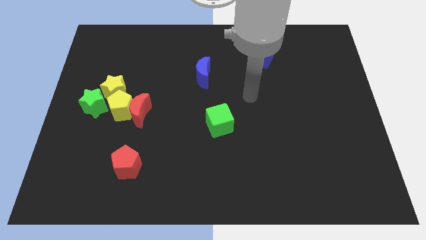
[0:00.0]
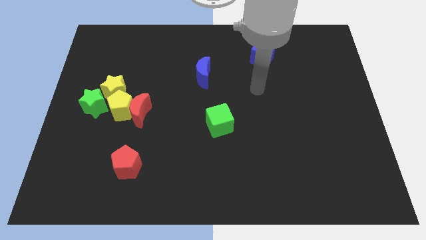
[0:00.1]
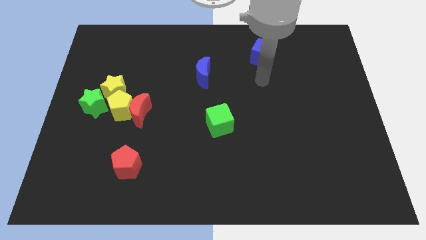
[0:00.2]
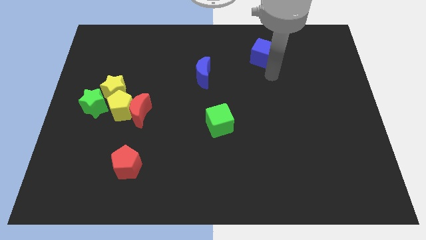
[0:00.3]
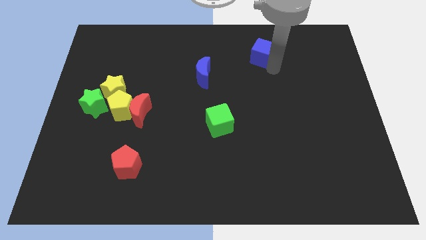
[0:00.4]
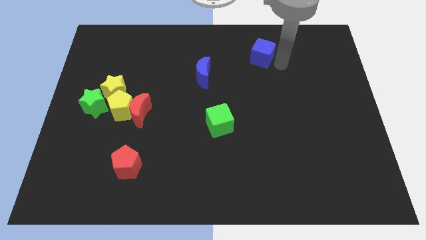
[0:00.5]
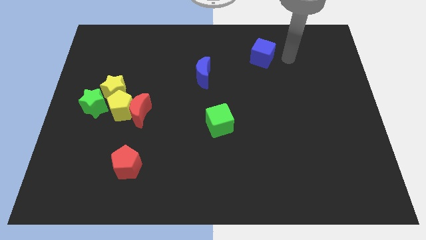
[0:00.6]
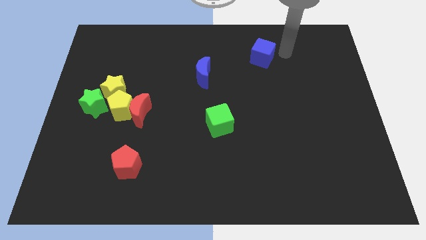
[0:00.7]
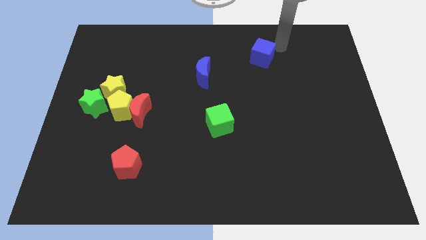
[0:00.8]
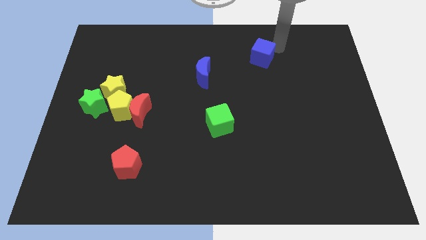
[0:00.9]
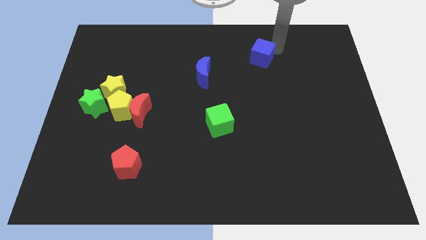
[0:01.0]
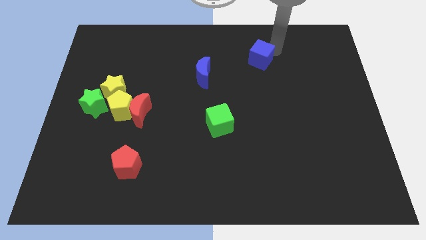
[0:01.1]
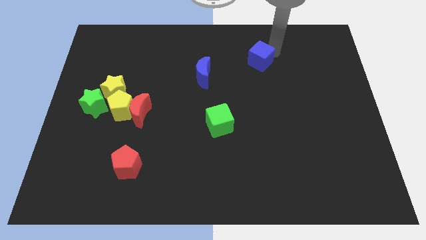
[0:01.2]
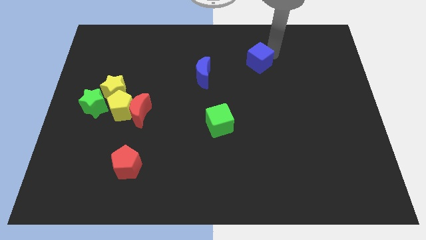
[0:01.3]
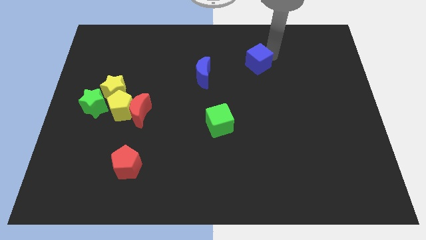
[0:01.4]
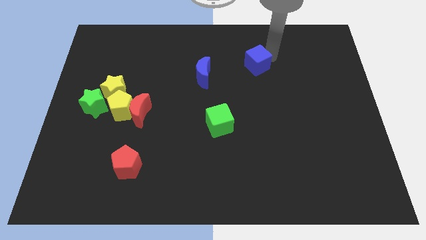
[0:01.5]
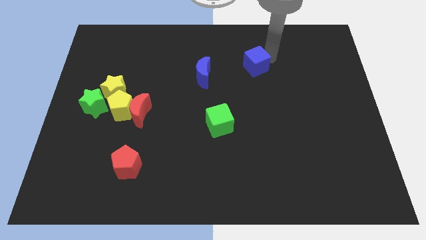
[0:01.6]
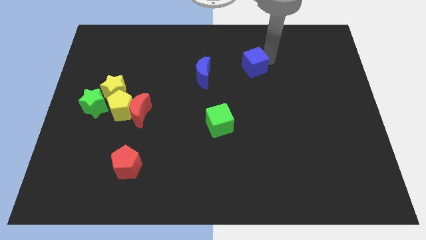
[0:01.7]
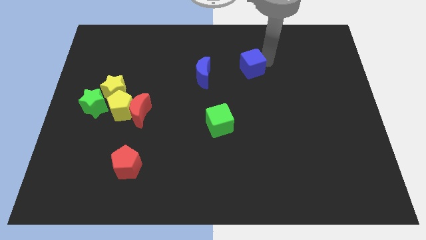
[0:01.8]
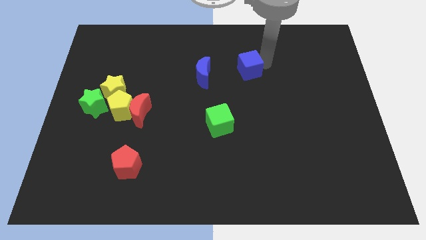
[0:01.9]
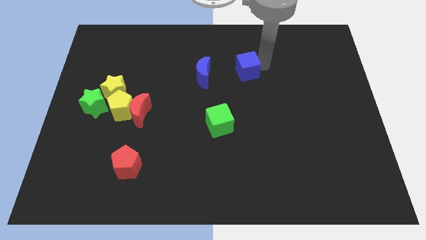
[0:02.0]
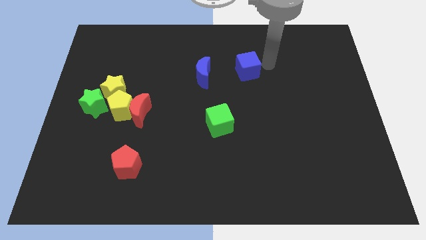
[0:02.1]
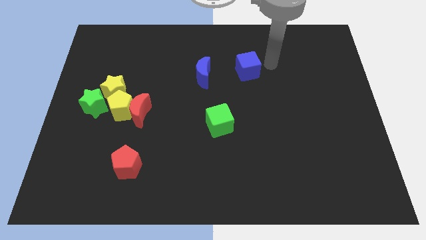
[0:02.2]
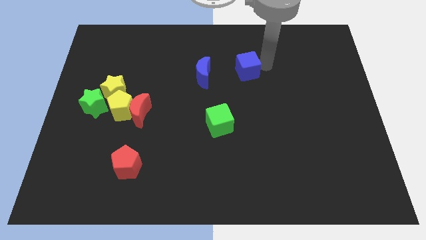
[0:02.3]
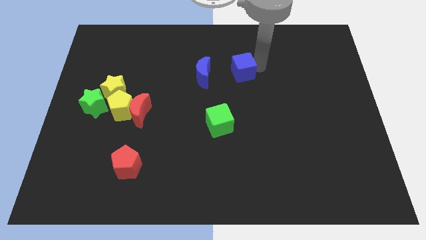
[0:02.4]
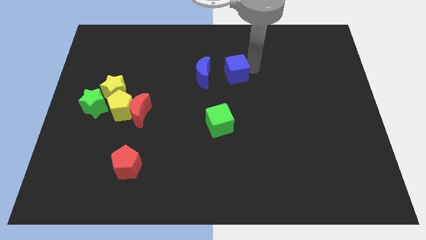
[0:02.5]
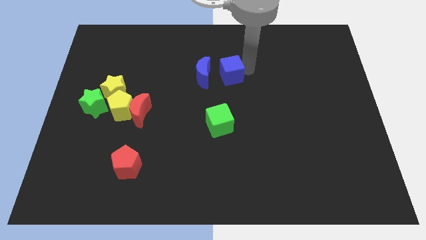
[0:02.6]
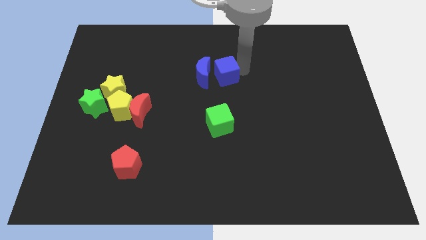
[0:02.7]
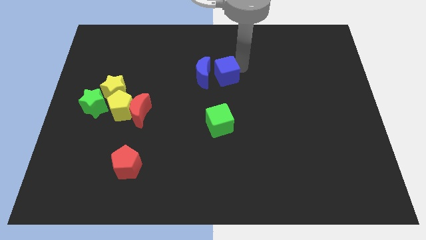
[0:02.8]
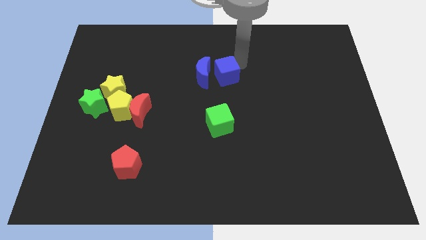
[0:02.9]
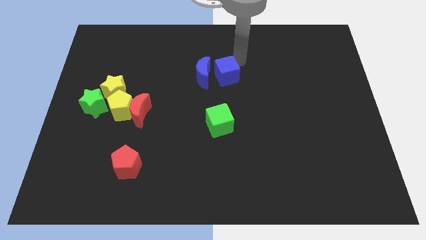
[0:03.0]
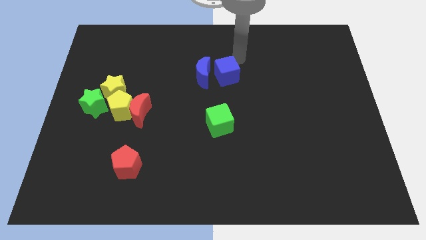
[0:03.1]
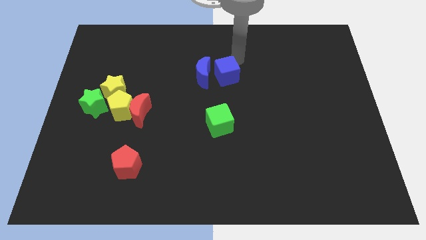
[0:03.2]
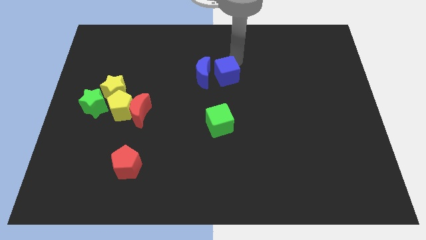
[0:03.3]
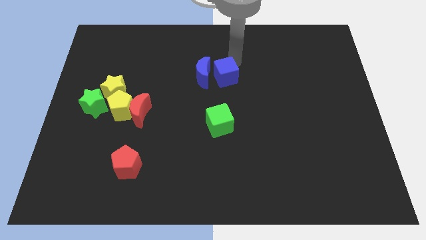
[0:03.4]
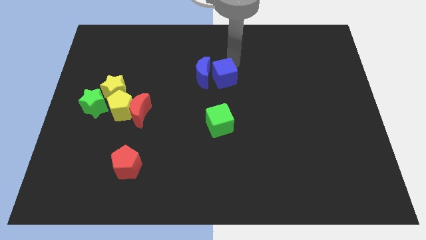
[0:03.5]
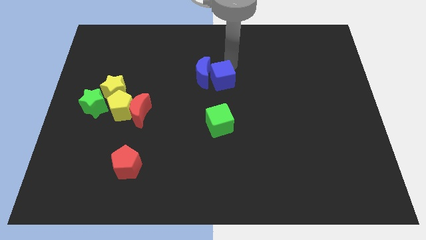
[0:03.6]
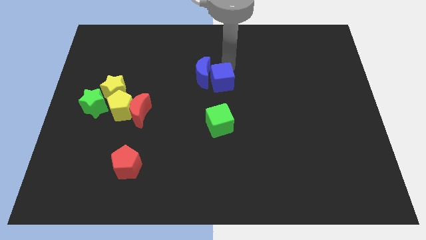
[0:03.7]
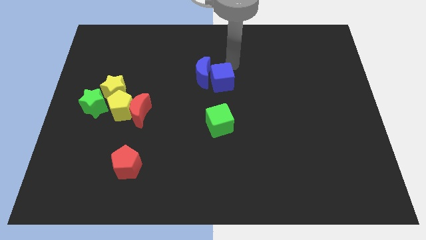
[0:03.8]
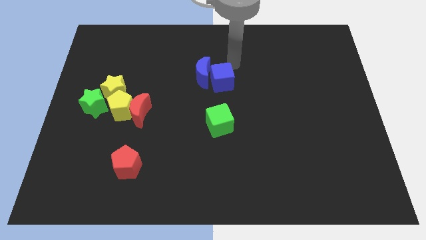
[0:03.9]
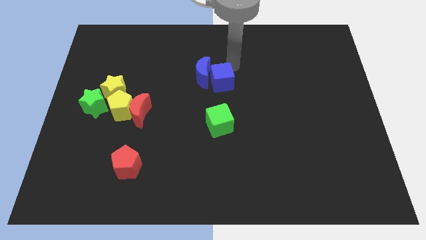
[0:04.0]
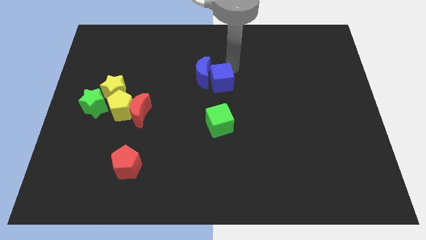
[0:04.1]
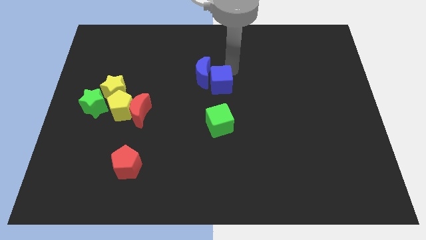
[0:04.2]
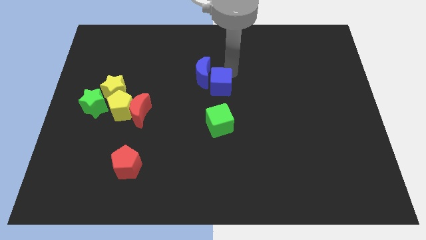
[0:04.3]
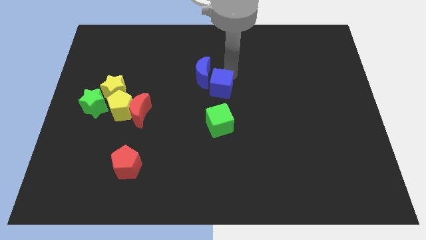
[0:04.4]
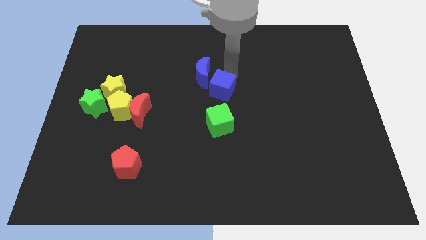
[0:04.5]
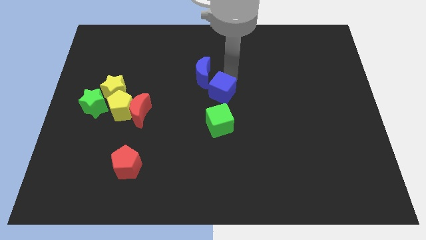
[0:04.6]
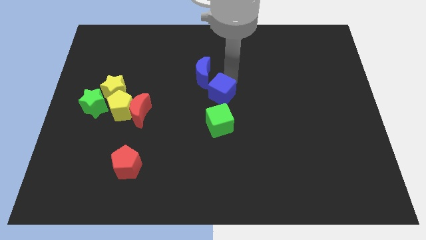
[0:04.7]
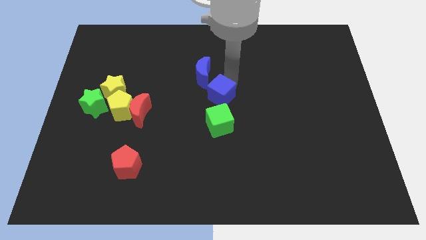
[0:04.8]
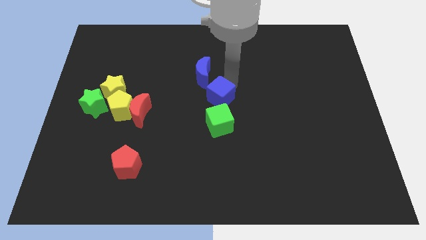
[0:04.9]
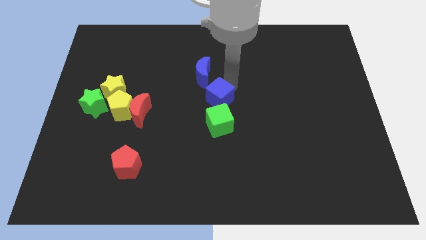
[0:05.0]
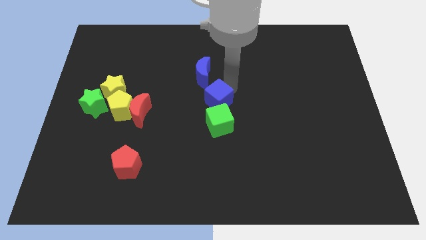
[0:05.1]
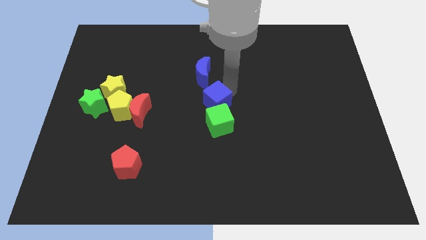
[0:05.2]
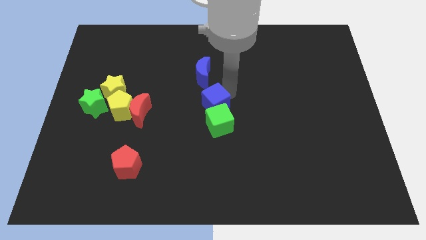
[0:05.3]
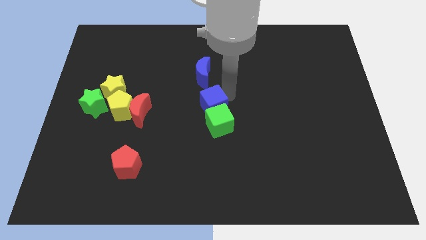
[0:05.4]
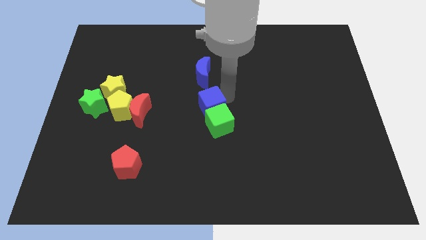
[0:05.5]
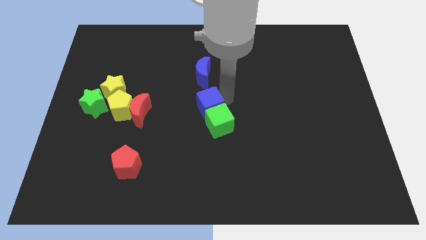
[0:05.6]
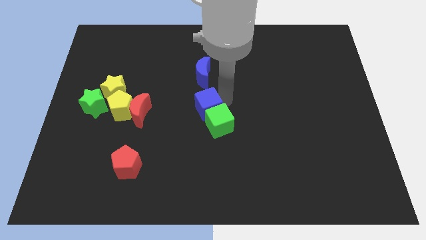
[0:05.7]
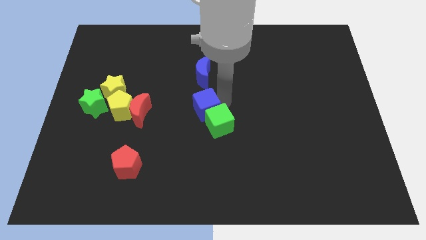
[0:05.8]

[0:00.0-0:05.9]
move the blue cube to the left side of the green cube

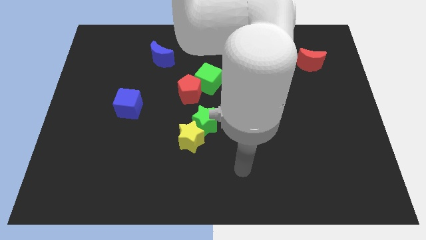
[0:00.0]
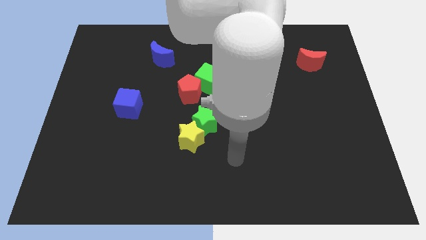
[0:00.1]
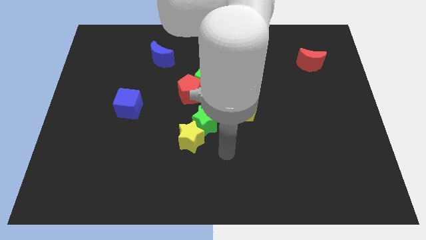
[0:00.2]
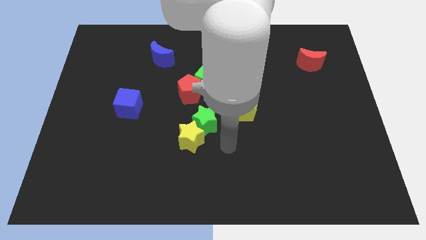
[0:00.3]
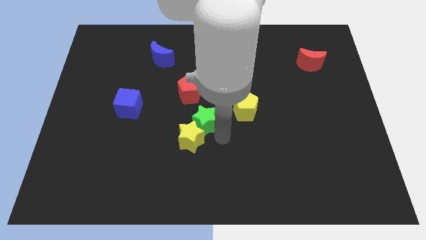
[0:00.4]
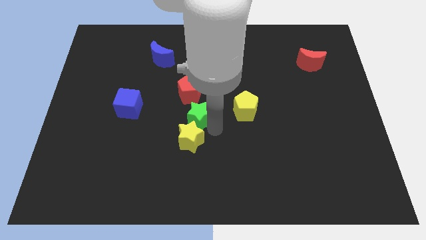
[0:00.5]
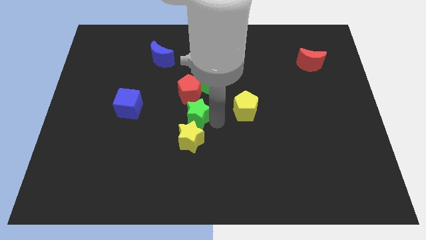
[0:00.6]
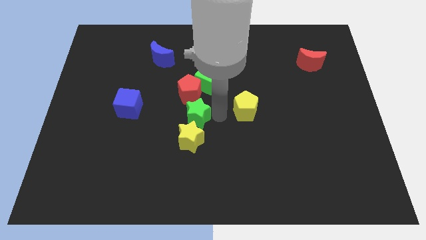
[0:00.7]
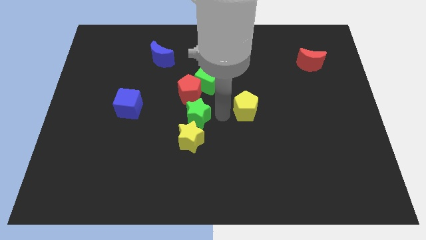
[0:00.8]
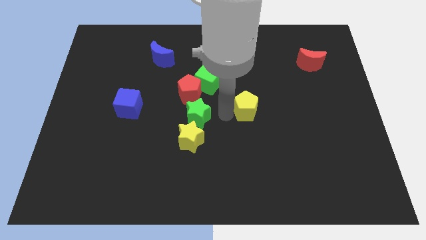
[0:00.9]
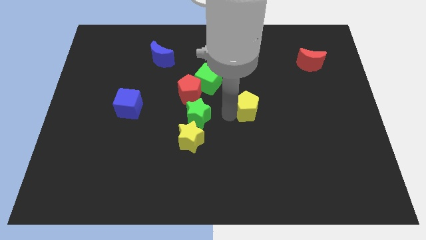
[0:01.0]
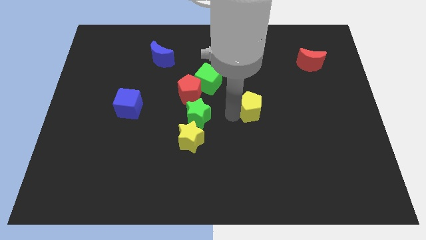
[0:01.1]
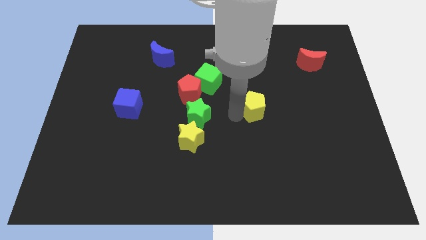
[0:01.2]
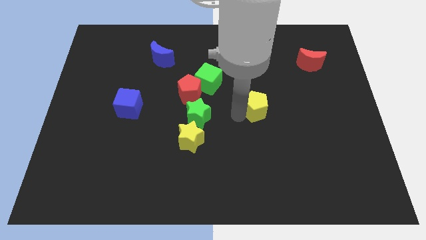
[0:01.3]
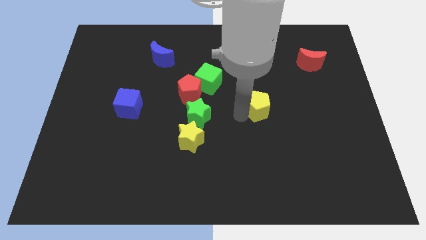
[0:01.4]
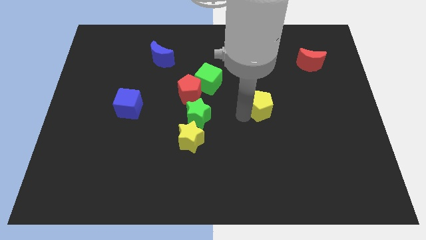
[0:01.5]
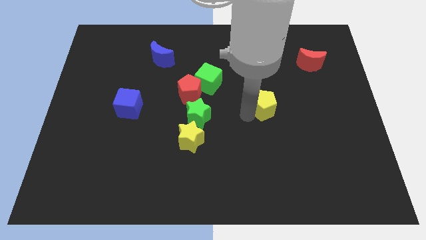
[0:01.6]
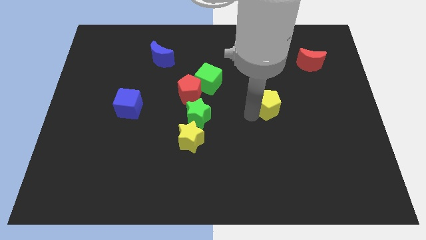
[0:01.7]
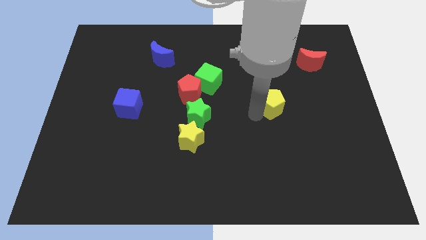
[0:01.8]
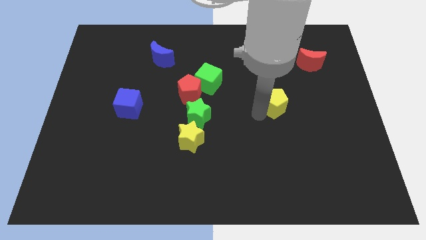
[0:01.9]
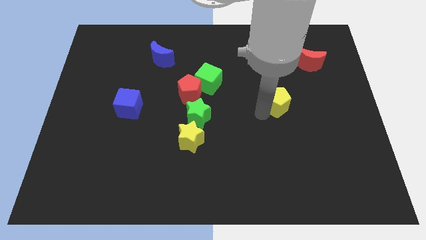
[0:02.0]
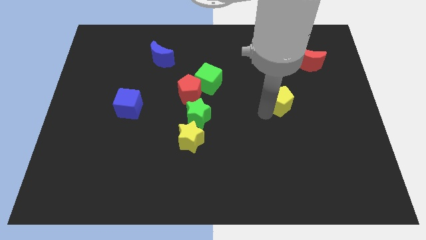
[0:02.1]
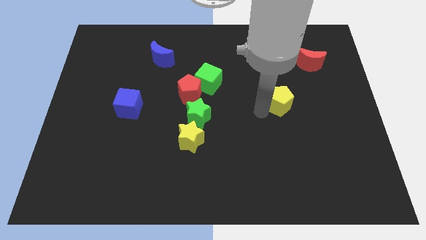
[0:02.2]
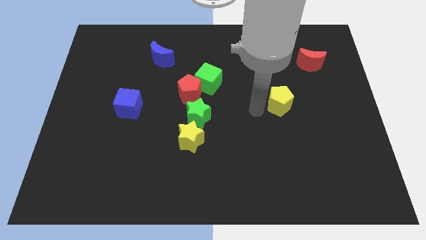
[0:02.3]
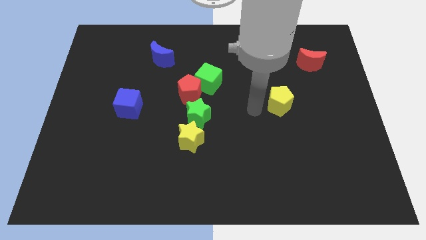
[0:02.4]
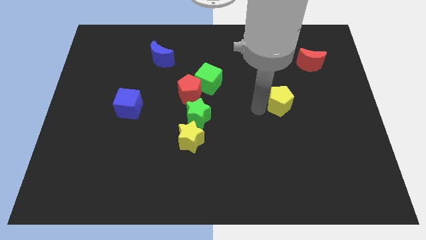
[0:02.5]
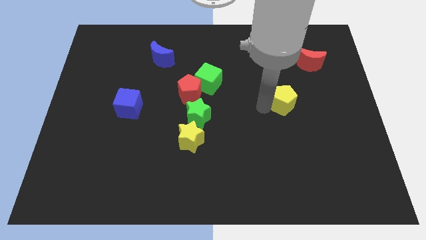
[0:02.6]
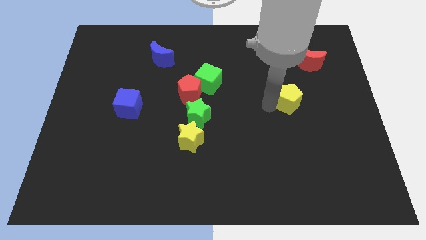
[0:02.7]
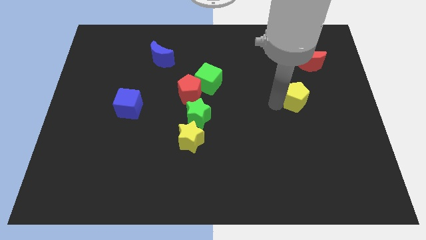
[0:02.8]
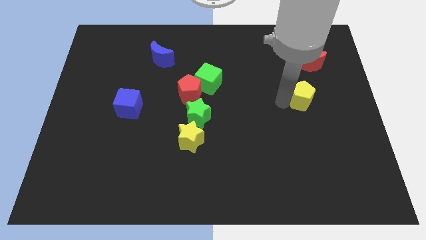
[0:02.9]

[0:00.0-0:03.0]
push the yellow pentagon below the red moon
